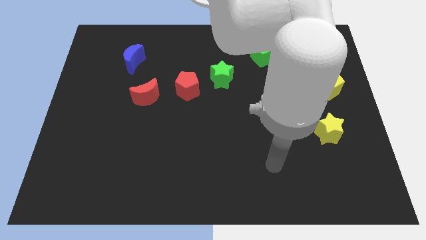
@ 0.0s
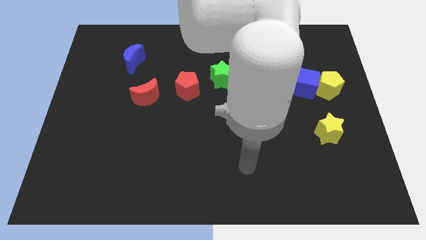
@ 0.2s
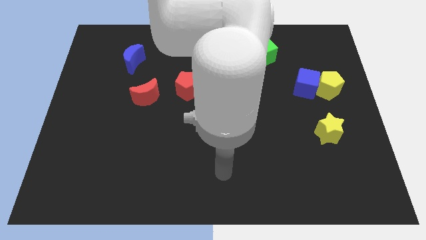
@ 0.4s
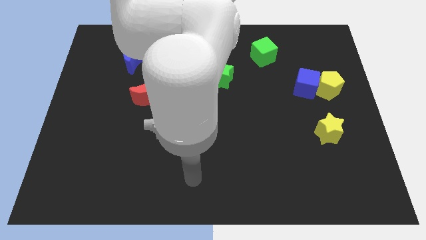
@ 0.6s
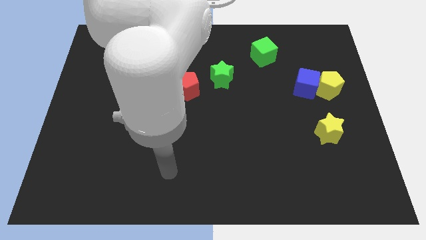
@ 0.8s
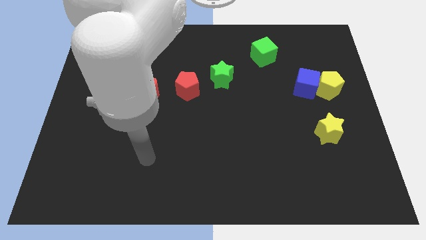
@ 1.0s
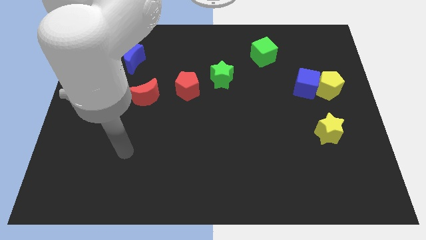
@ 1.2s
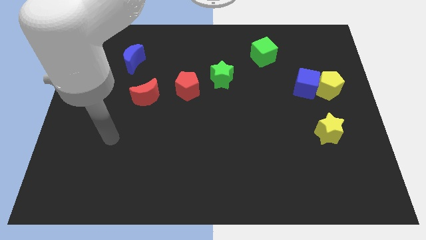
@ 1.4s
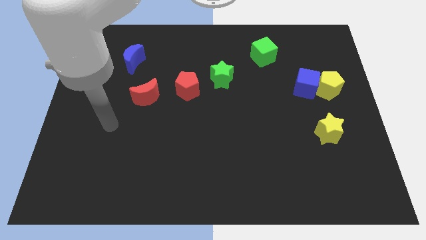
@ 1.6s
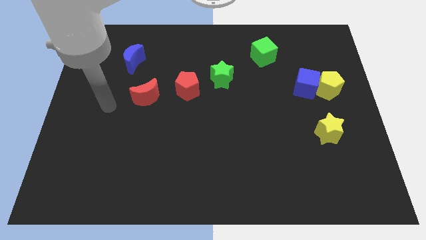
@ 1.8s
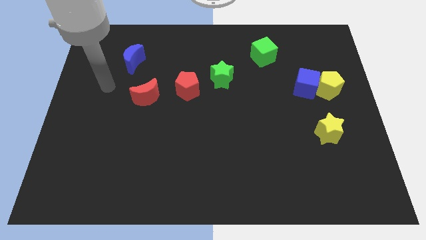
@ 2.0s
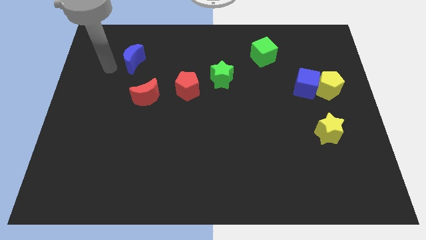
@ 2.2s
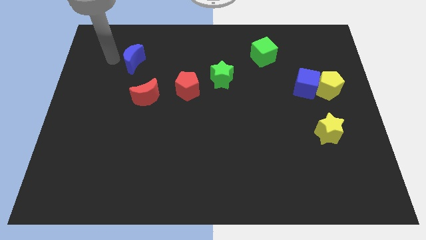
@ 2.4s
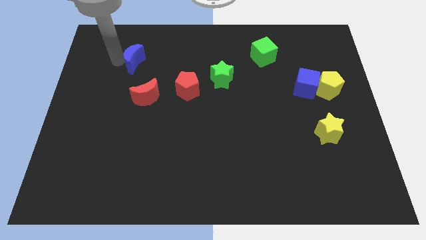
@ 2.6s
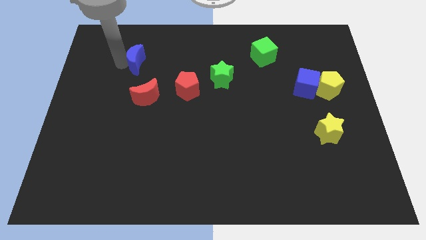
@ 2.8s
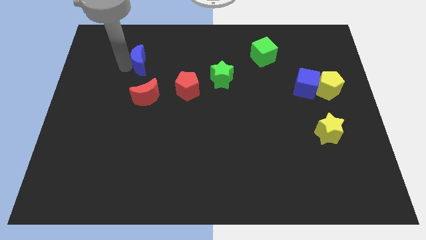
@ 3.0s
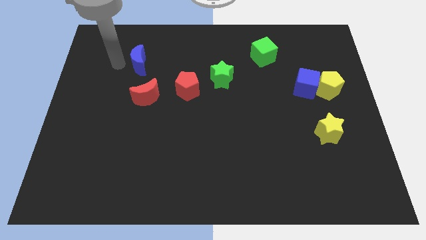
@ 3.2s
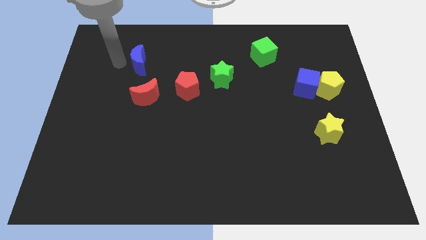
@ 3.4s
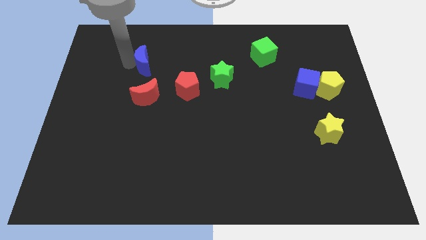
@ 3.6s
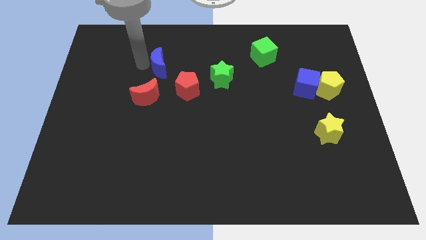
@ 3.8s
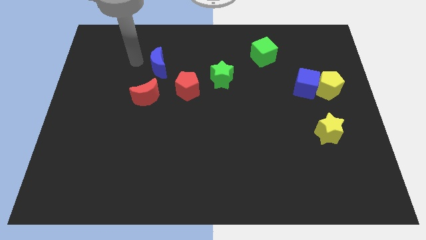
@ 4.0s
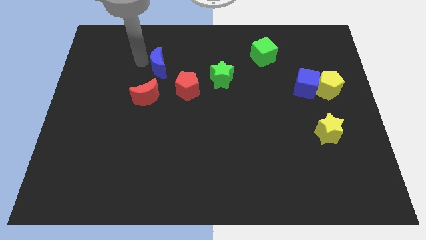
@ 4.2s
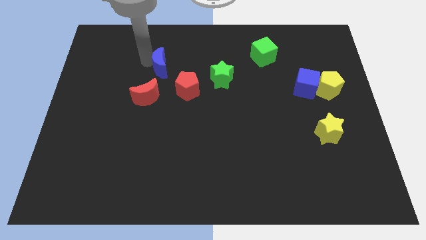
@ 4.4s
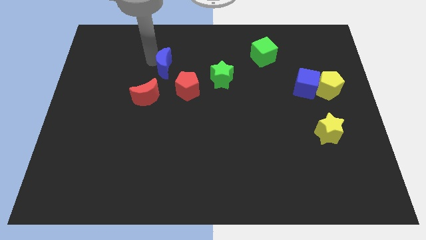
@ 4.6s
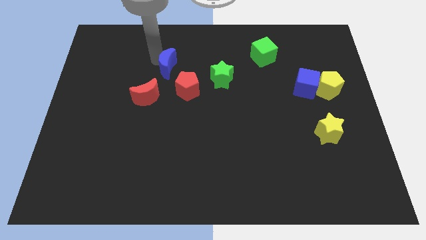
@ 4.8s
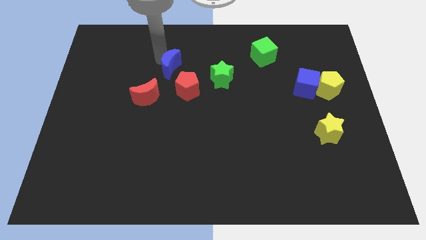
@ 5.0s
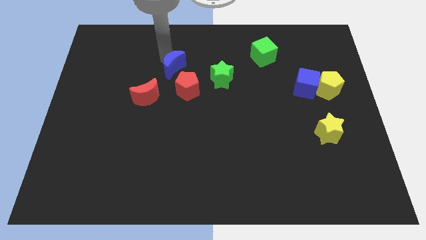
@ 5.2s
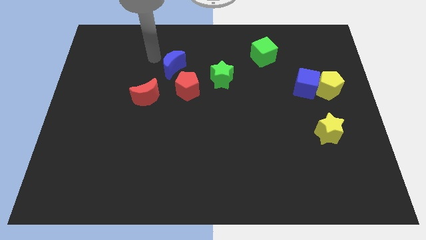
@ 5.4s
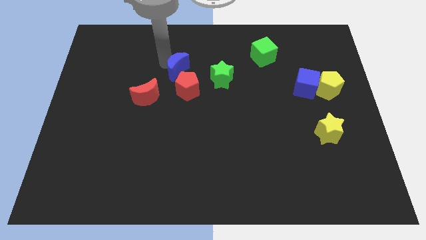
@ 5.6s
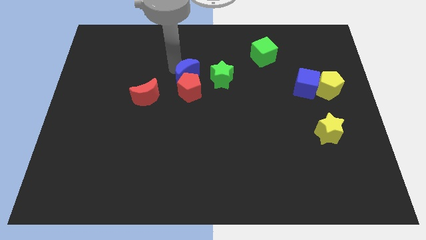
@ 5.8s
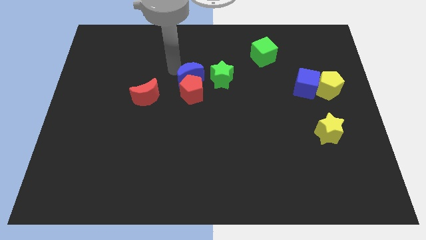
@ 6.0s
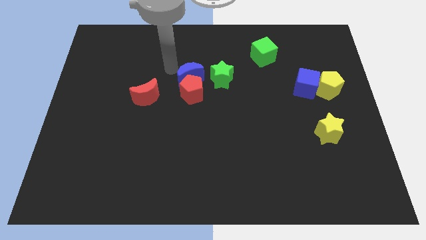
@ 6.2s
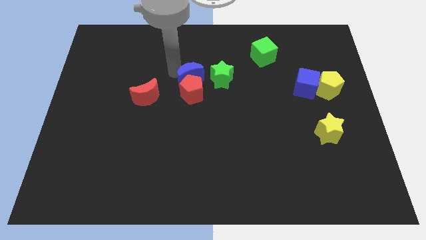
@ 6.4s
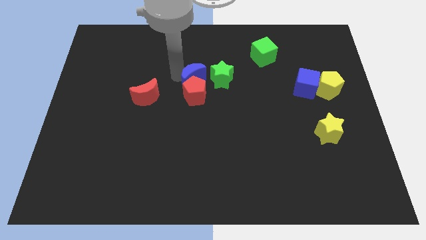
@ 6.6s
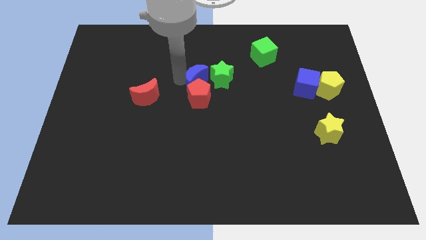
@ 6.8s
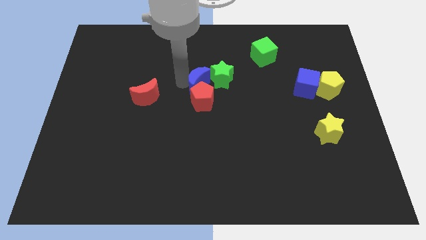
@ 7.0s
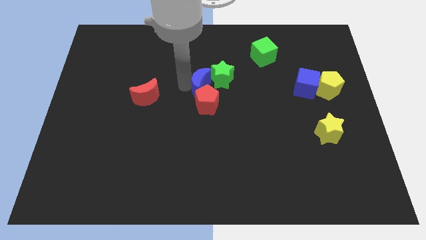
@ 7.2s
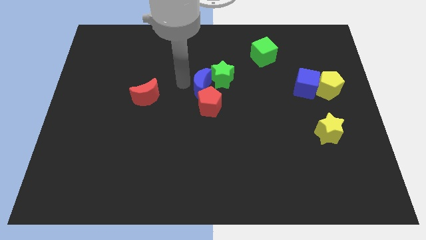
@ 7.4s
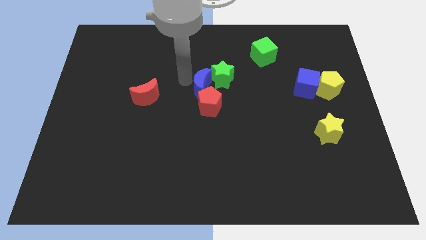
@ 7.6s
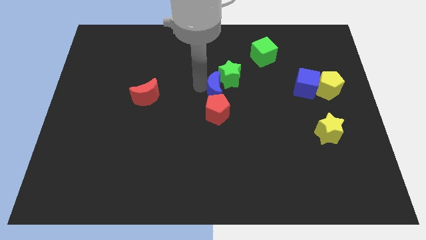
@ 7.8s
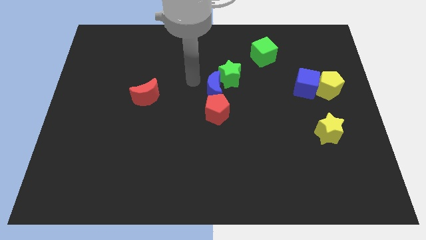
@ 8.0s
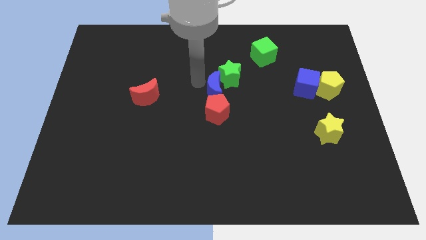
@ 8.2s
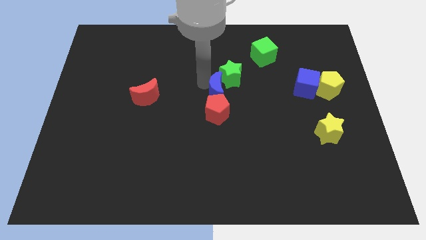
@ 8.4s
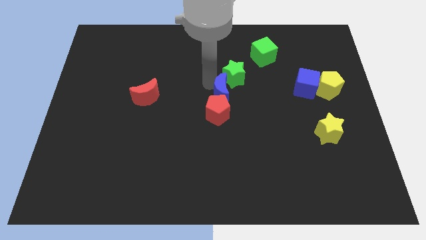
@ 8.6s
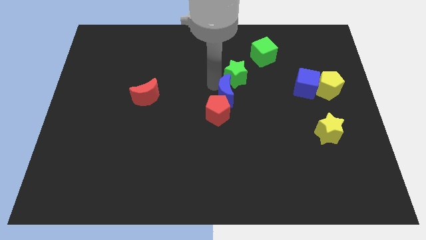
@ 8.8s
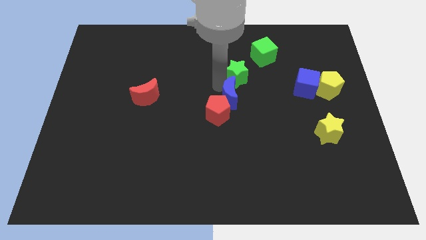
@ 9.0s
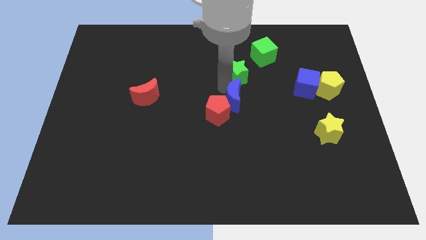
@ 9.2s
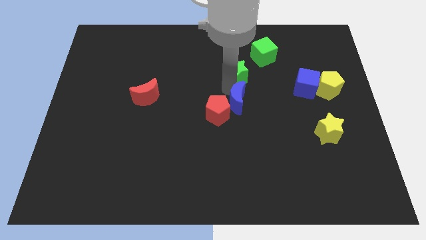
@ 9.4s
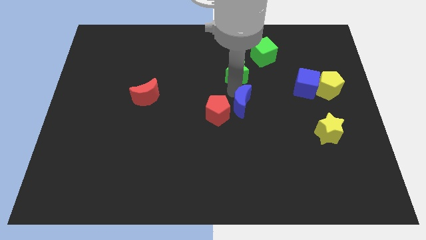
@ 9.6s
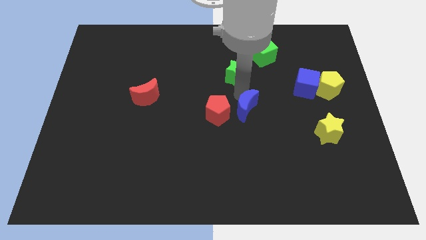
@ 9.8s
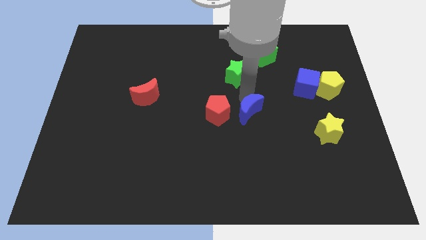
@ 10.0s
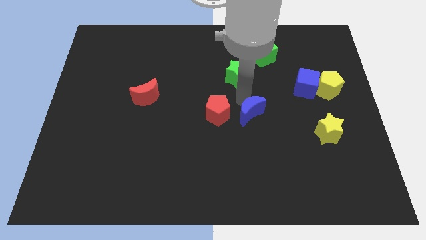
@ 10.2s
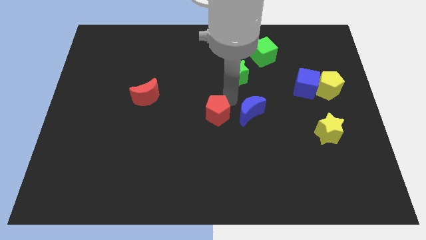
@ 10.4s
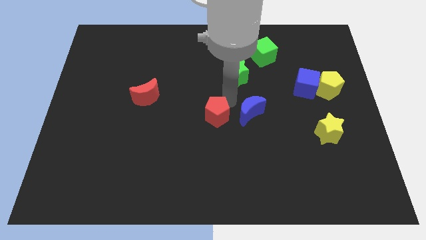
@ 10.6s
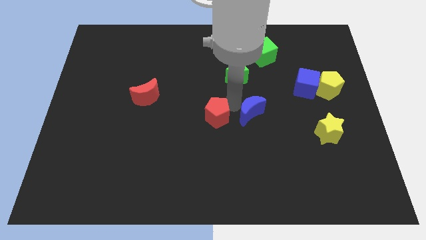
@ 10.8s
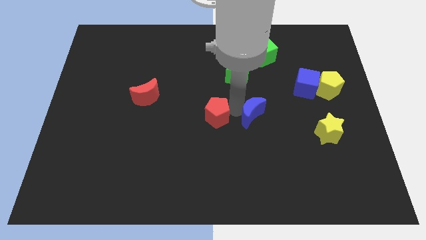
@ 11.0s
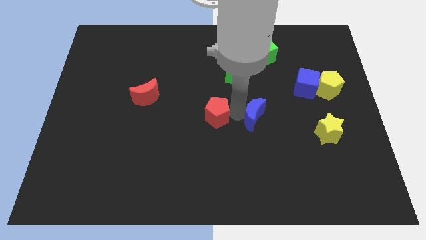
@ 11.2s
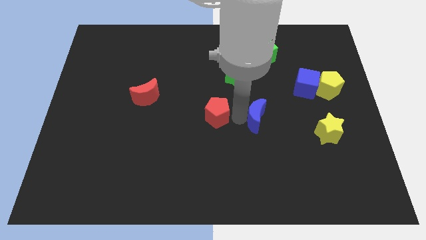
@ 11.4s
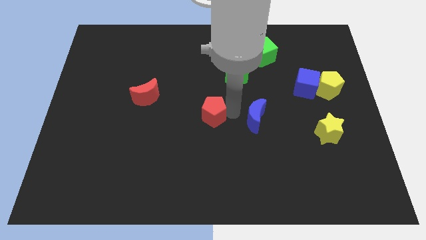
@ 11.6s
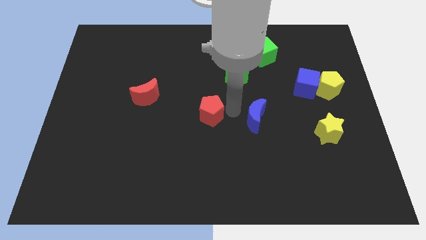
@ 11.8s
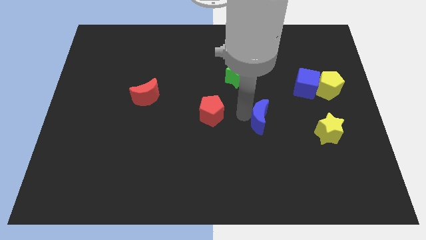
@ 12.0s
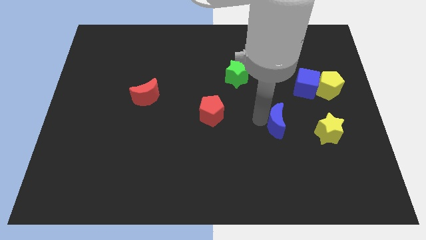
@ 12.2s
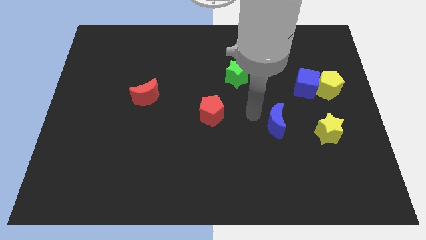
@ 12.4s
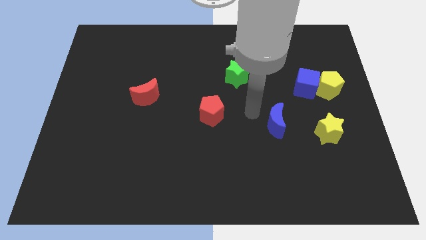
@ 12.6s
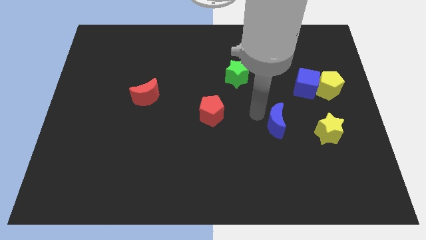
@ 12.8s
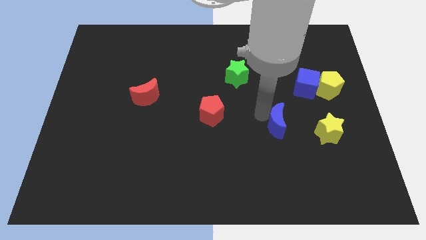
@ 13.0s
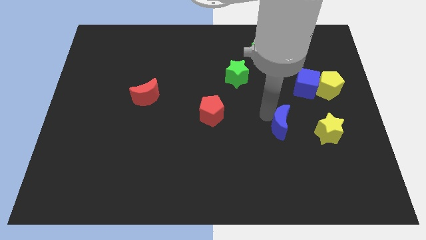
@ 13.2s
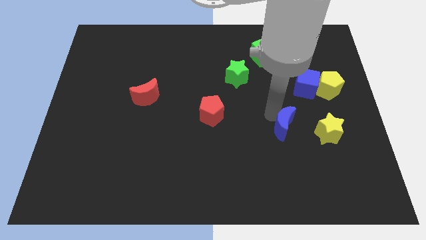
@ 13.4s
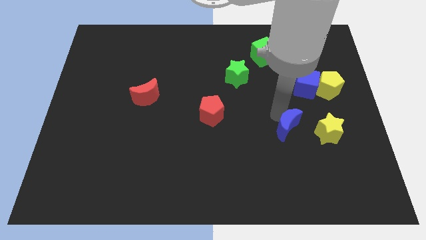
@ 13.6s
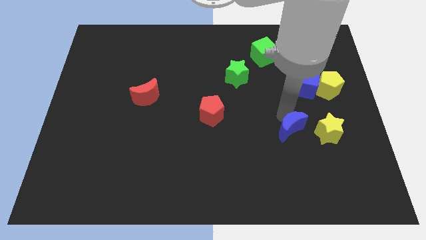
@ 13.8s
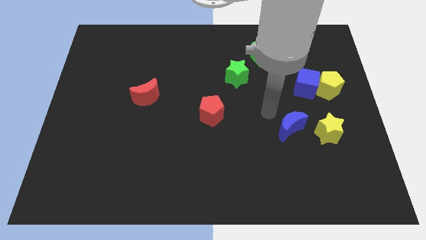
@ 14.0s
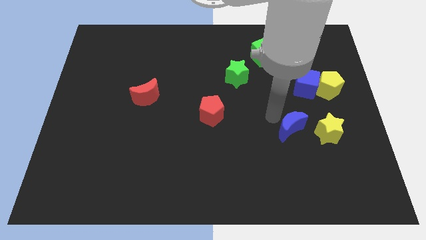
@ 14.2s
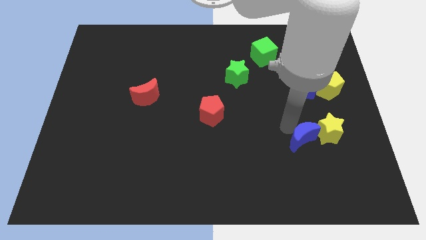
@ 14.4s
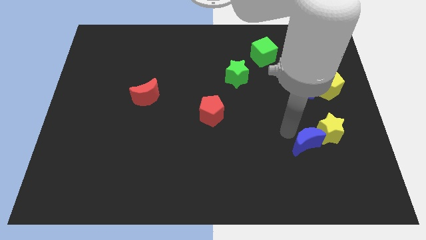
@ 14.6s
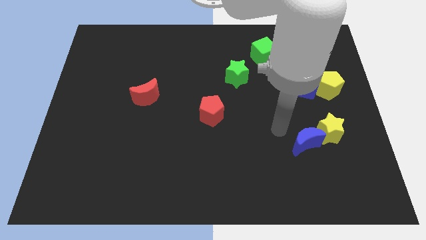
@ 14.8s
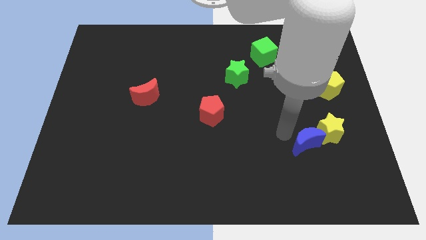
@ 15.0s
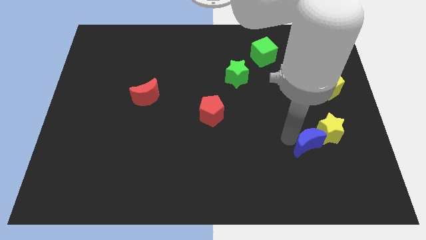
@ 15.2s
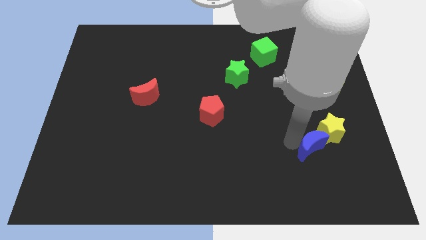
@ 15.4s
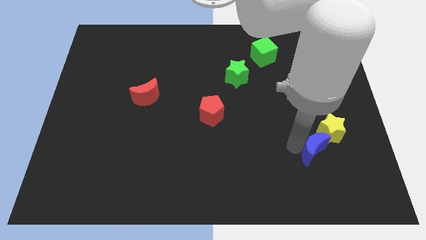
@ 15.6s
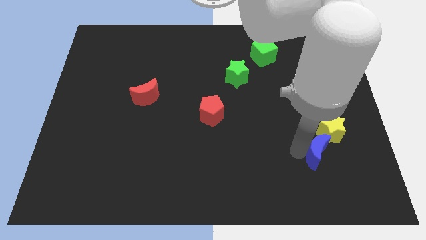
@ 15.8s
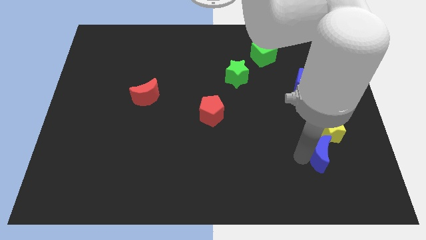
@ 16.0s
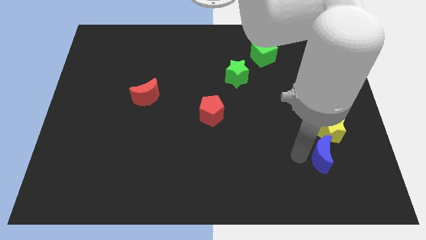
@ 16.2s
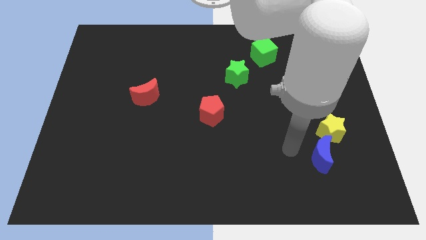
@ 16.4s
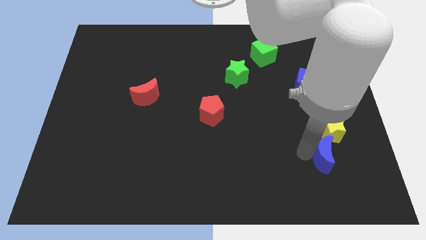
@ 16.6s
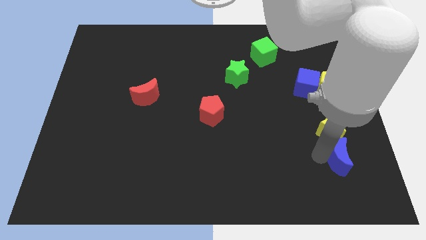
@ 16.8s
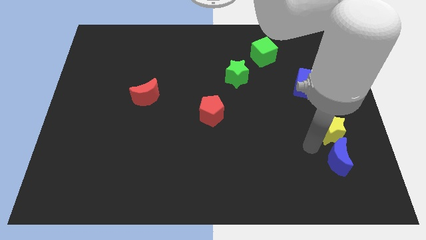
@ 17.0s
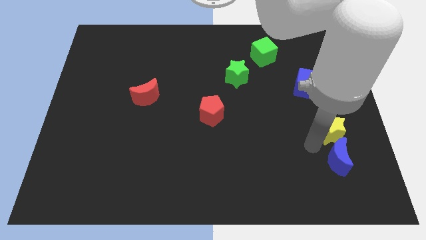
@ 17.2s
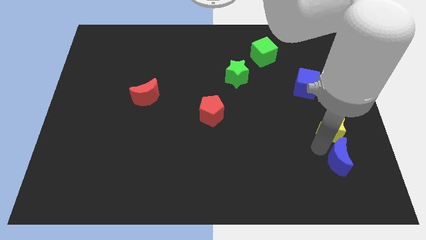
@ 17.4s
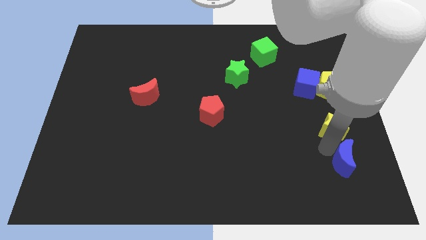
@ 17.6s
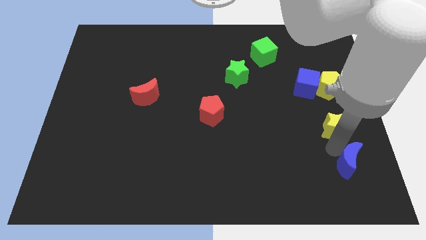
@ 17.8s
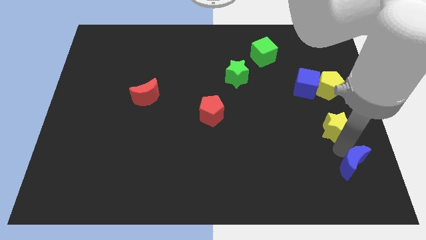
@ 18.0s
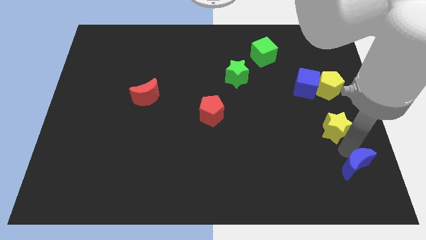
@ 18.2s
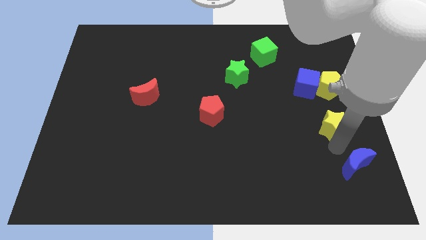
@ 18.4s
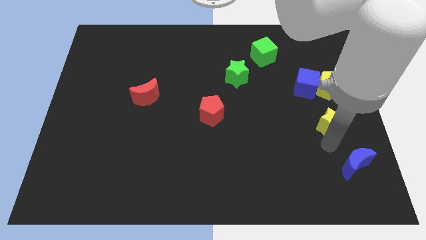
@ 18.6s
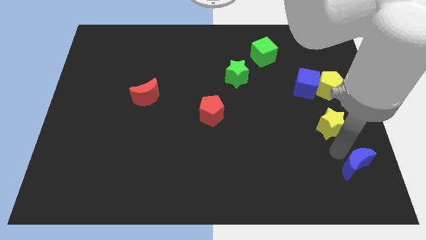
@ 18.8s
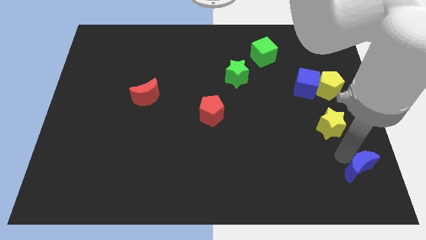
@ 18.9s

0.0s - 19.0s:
slide the blue moon to the bottom right corner
